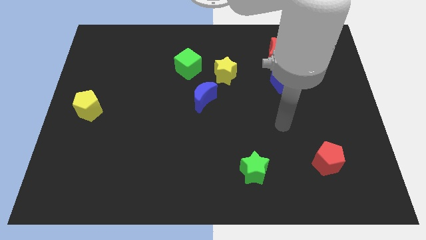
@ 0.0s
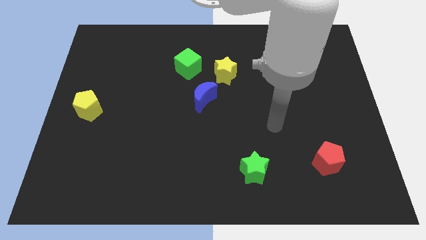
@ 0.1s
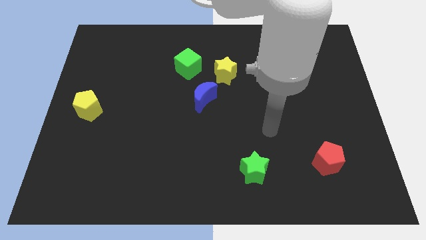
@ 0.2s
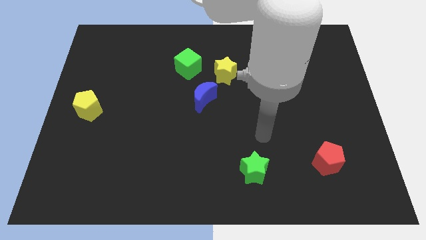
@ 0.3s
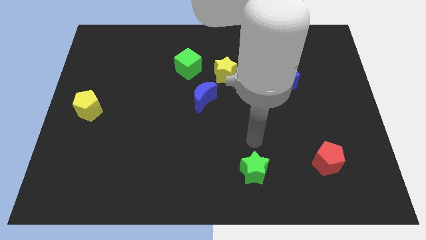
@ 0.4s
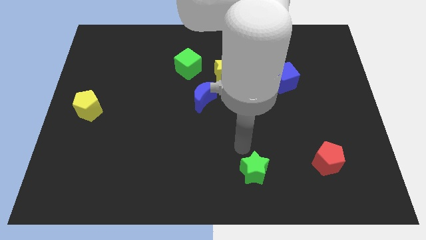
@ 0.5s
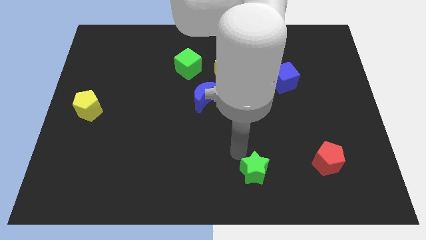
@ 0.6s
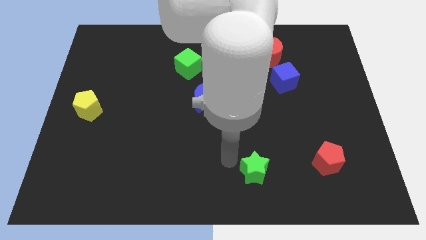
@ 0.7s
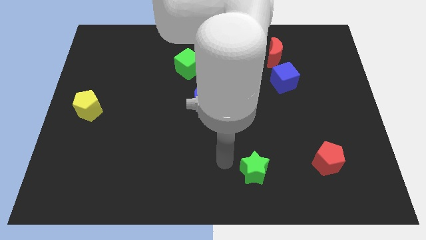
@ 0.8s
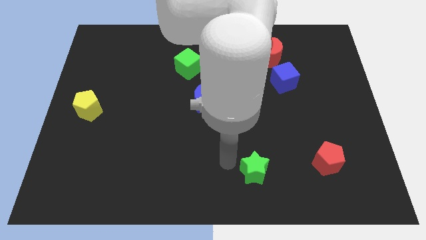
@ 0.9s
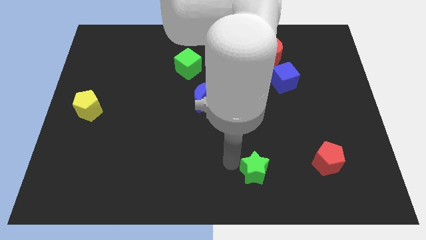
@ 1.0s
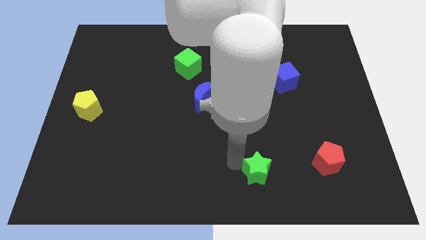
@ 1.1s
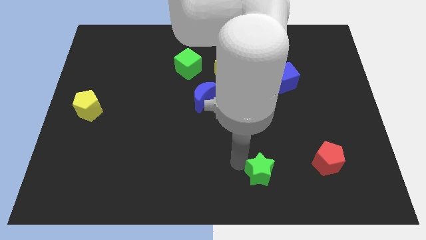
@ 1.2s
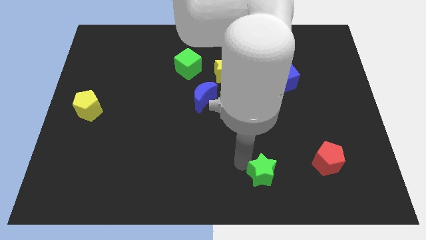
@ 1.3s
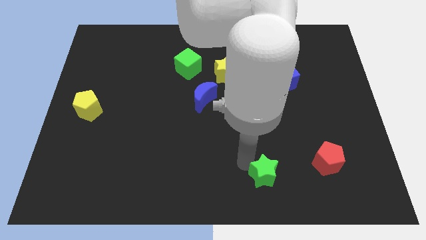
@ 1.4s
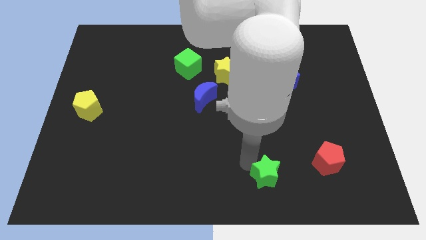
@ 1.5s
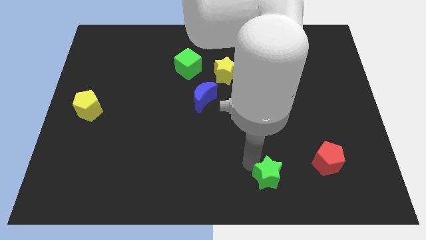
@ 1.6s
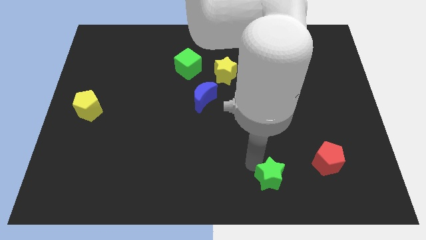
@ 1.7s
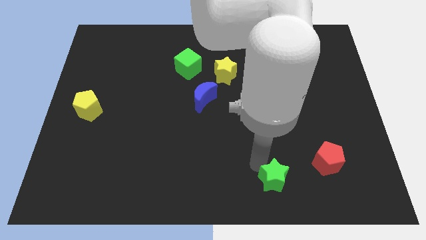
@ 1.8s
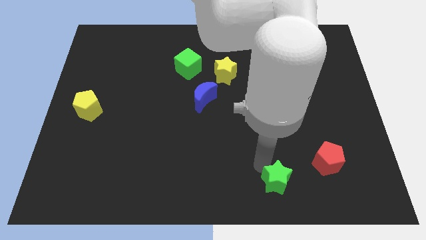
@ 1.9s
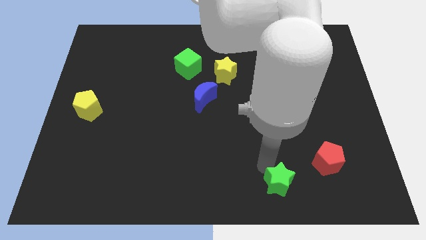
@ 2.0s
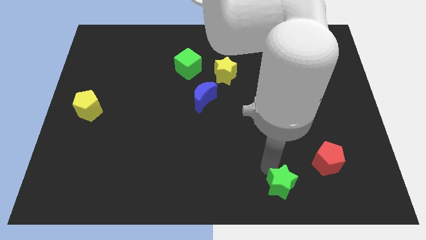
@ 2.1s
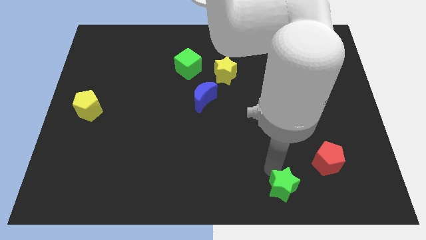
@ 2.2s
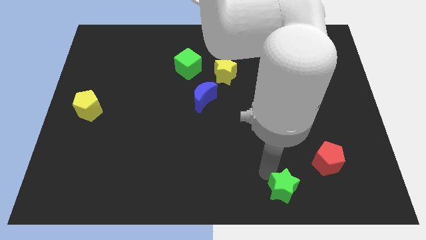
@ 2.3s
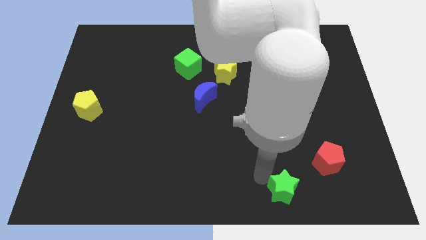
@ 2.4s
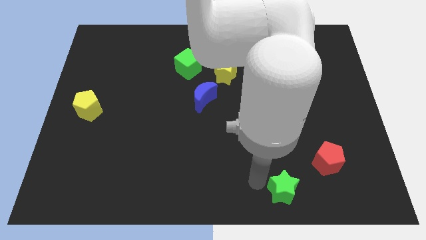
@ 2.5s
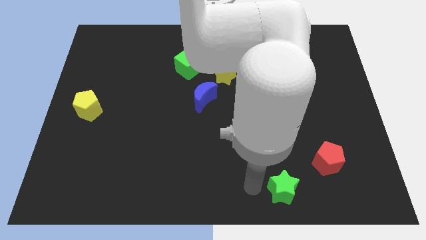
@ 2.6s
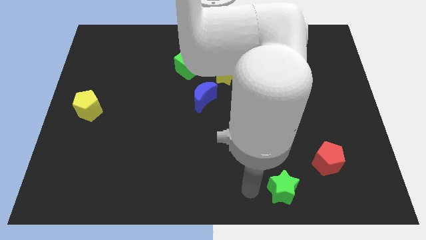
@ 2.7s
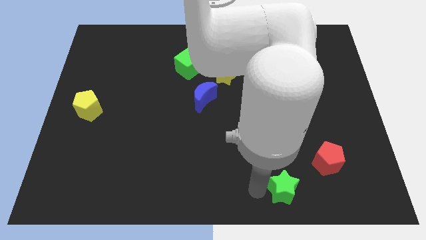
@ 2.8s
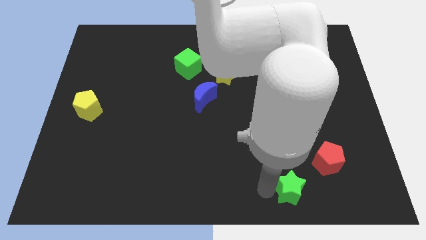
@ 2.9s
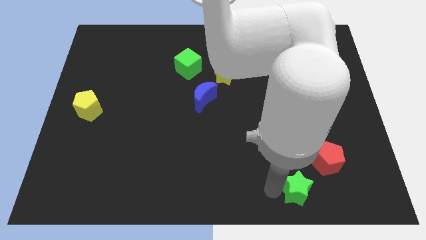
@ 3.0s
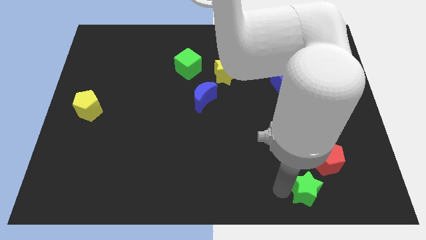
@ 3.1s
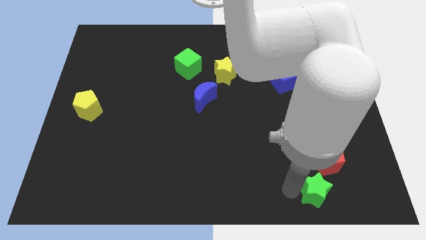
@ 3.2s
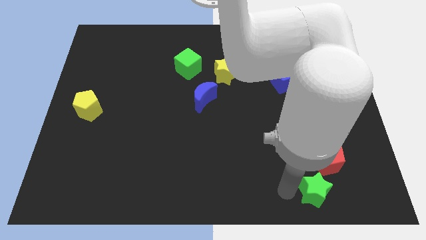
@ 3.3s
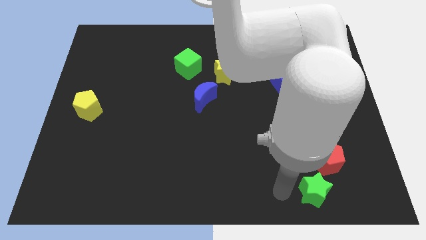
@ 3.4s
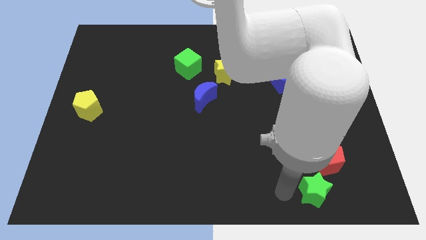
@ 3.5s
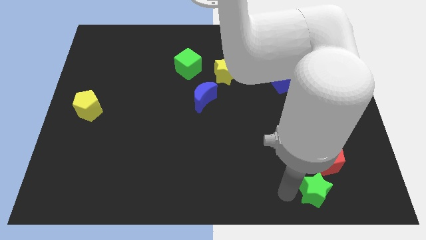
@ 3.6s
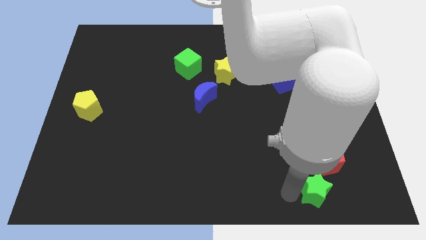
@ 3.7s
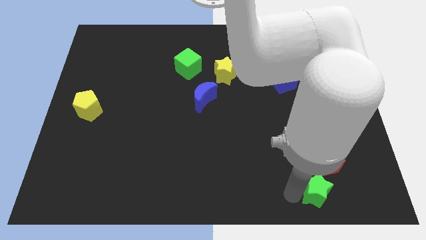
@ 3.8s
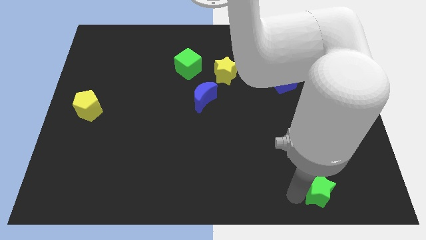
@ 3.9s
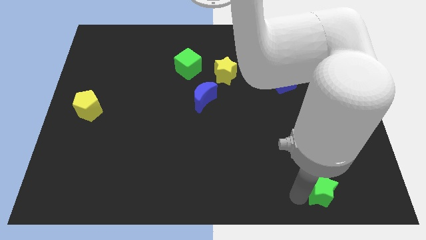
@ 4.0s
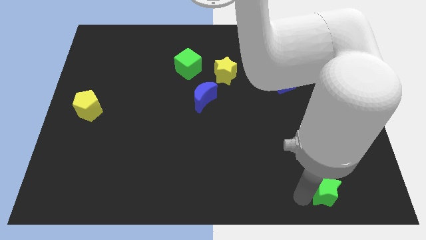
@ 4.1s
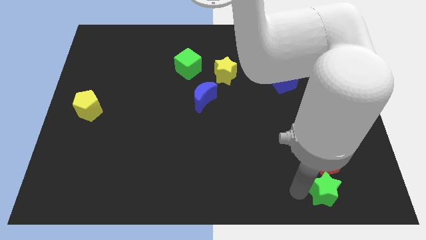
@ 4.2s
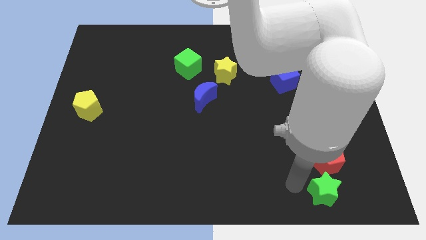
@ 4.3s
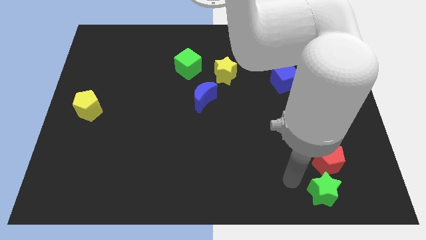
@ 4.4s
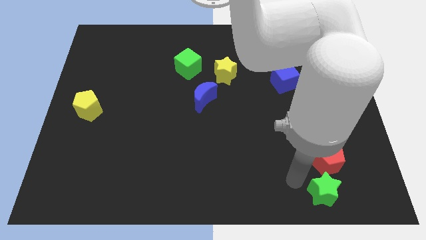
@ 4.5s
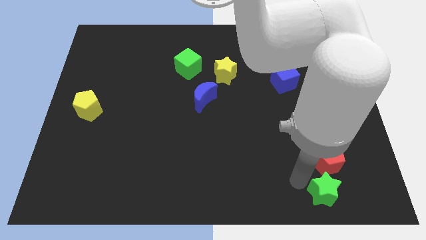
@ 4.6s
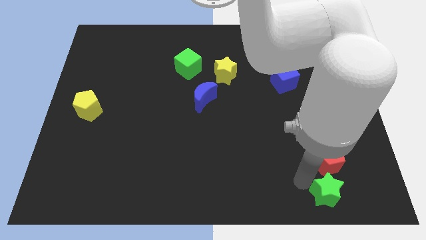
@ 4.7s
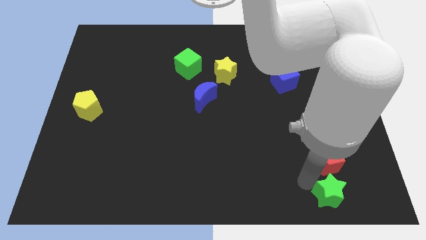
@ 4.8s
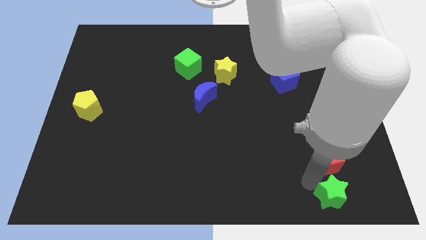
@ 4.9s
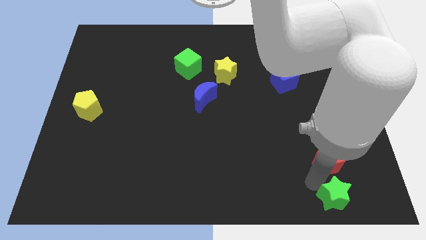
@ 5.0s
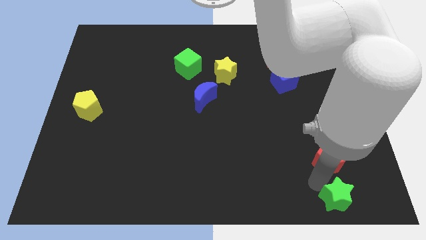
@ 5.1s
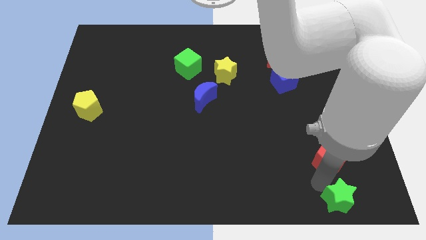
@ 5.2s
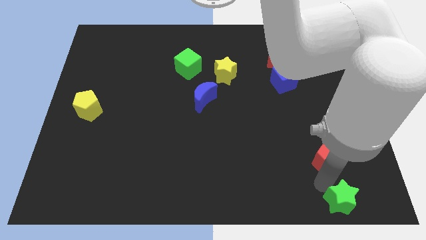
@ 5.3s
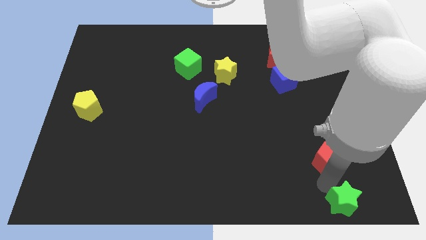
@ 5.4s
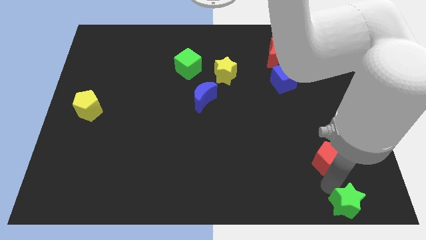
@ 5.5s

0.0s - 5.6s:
push the green star to the bottom right
